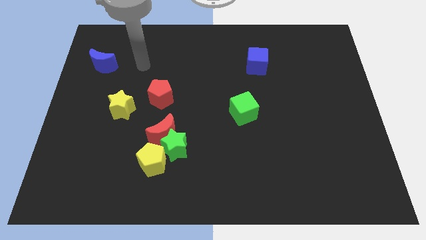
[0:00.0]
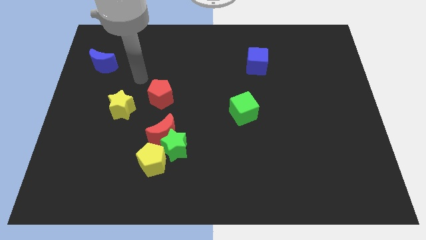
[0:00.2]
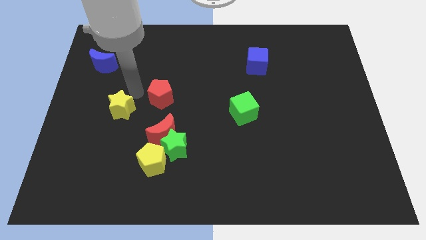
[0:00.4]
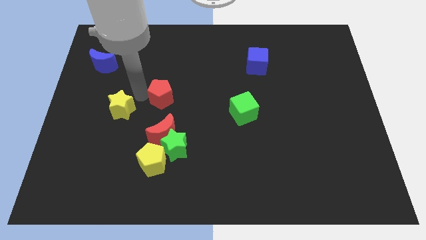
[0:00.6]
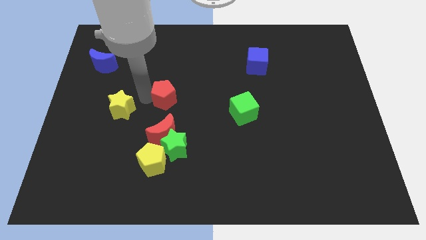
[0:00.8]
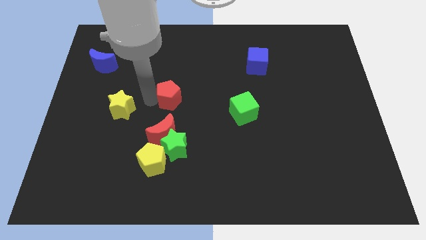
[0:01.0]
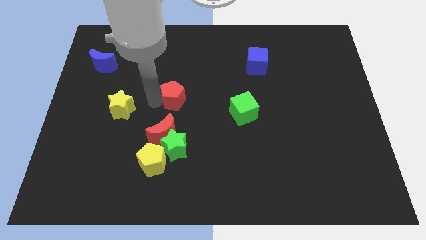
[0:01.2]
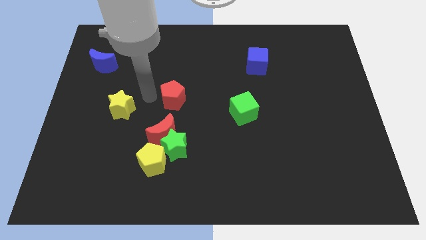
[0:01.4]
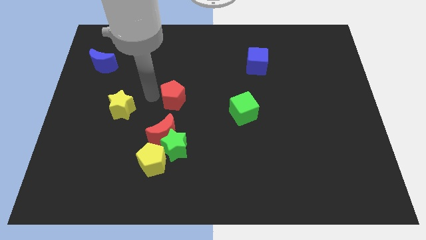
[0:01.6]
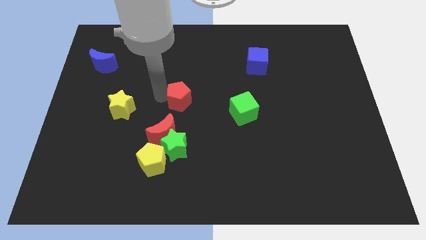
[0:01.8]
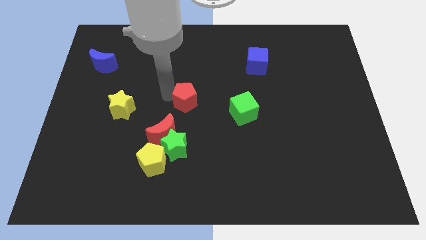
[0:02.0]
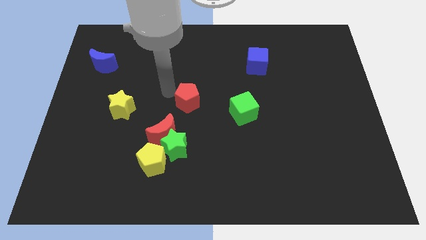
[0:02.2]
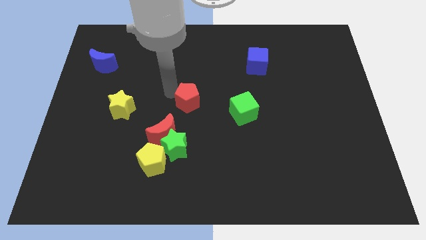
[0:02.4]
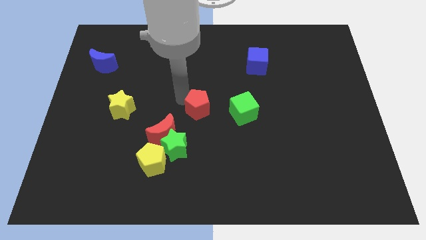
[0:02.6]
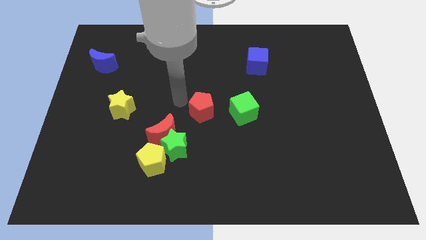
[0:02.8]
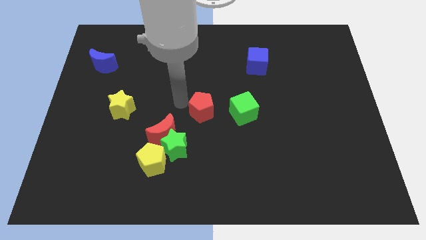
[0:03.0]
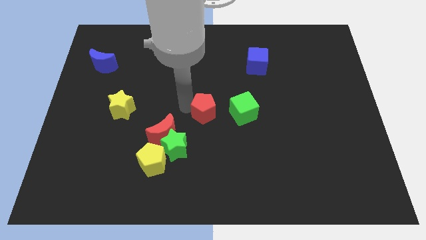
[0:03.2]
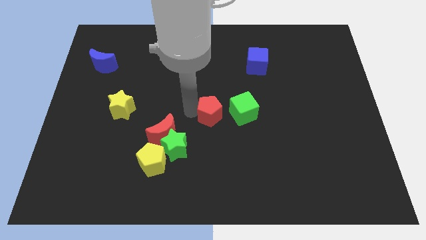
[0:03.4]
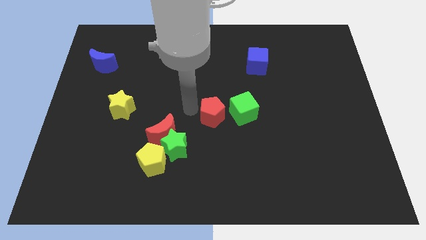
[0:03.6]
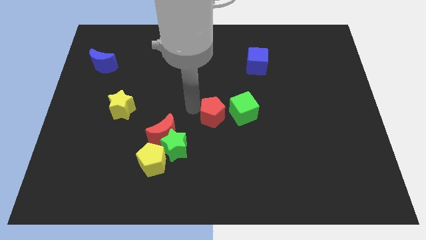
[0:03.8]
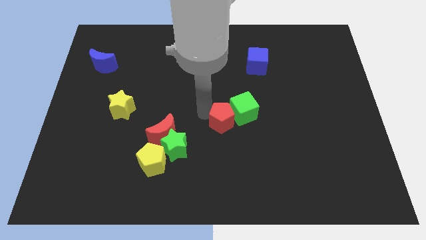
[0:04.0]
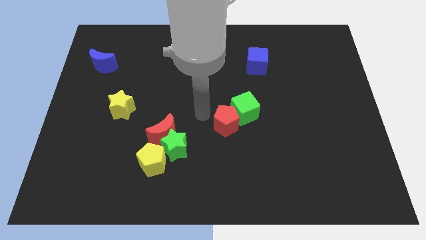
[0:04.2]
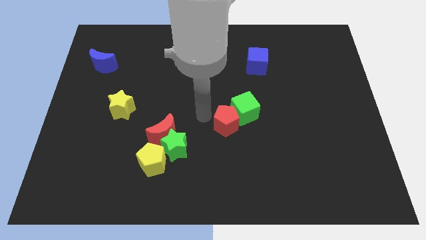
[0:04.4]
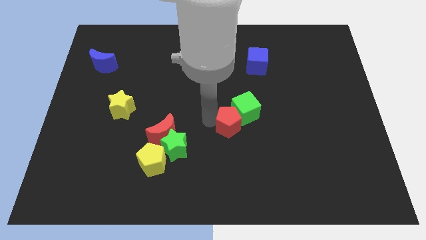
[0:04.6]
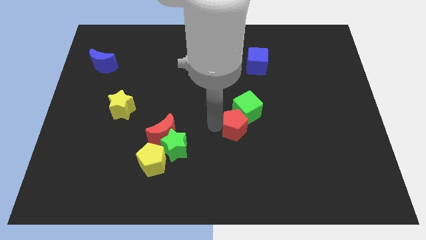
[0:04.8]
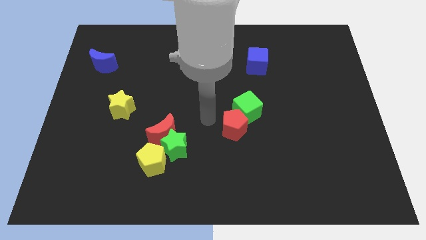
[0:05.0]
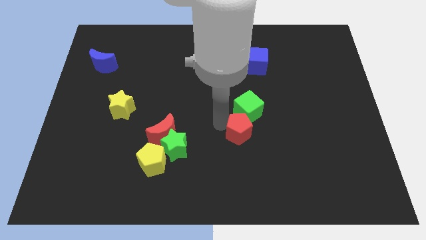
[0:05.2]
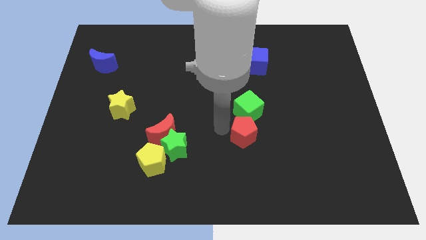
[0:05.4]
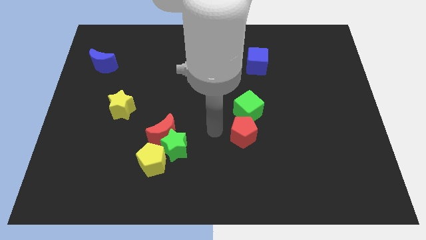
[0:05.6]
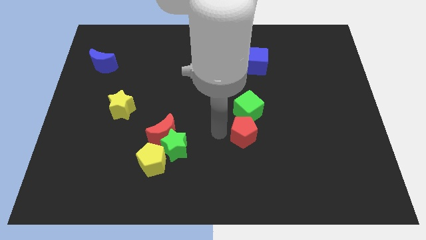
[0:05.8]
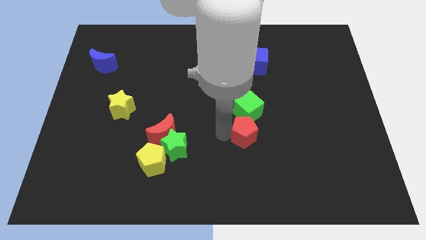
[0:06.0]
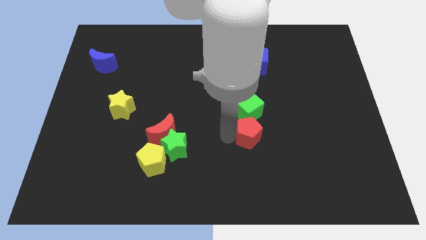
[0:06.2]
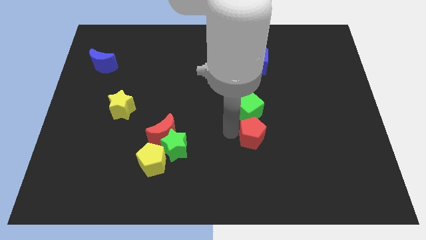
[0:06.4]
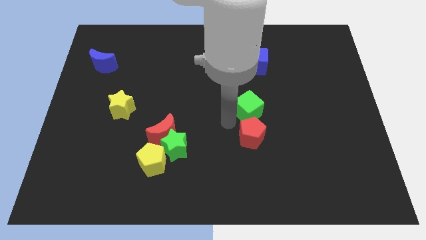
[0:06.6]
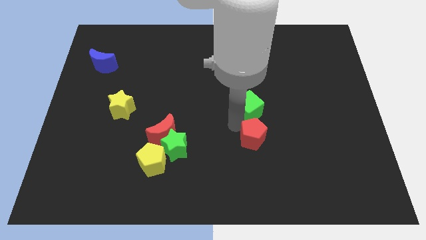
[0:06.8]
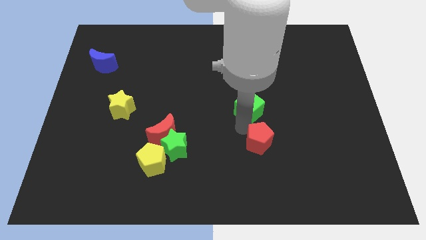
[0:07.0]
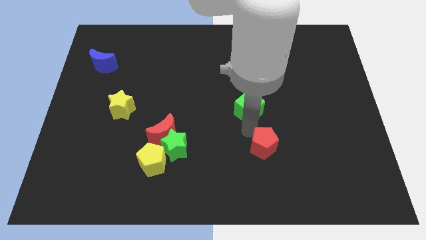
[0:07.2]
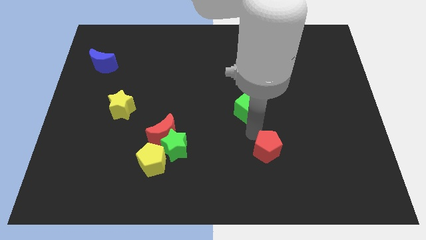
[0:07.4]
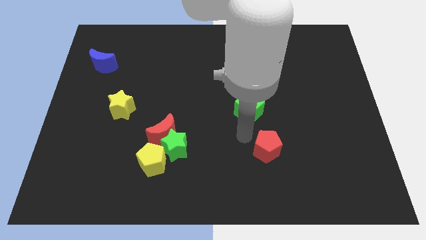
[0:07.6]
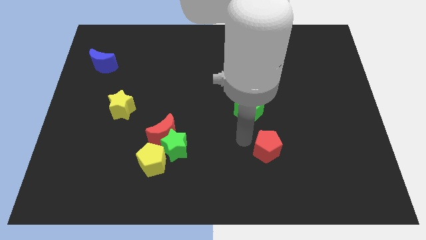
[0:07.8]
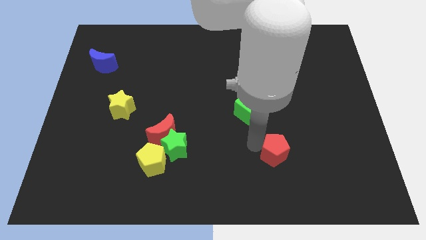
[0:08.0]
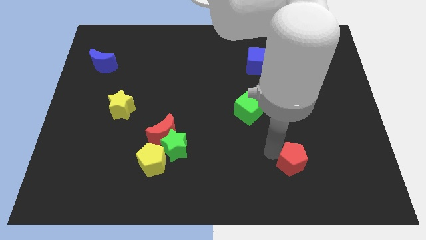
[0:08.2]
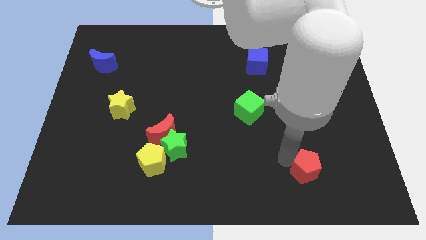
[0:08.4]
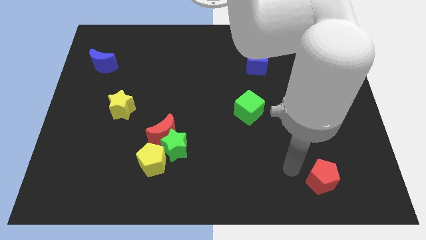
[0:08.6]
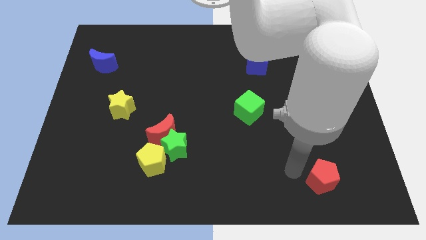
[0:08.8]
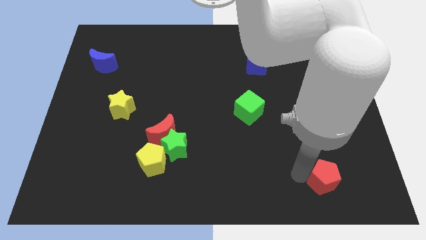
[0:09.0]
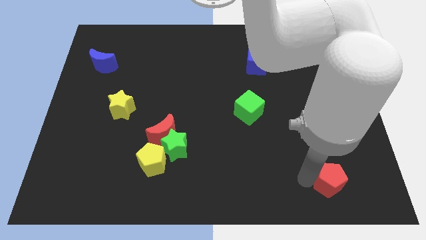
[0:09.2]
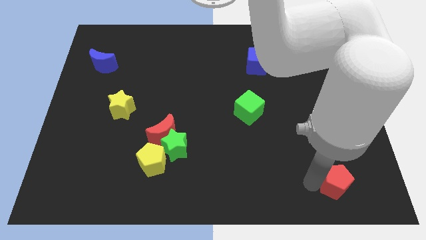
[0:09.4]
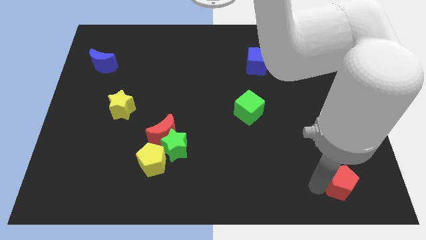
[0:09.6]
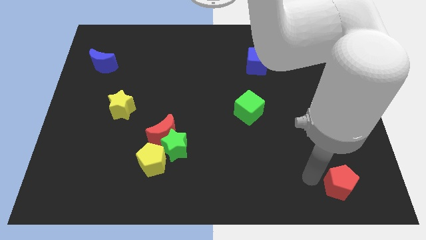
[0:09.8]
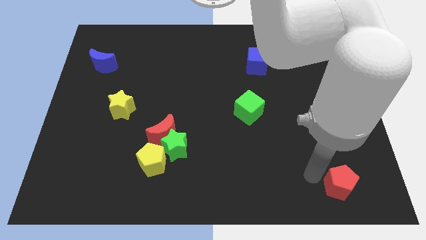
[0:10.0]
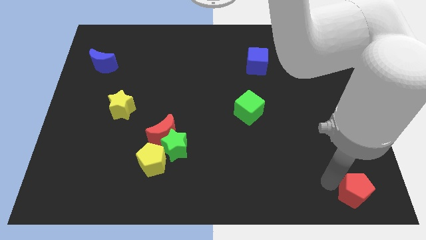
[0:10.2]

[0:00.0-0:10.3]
put the red pentagon to the bottom right

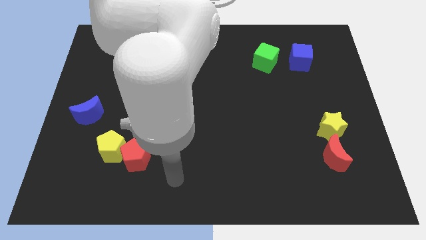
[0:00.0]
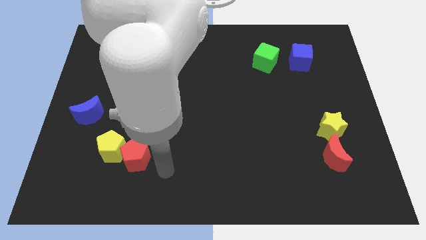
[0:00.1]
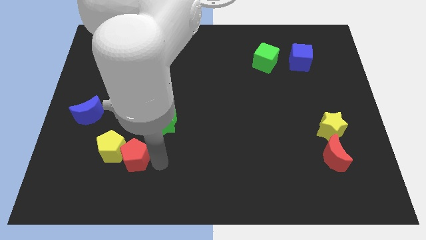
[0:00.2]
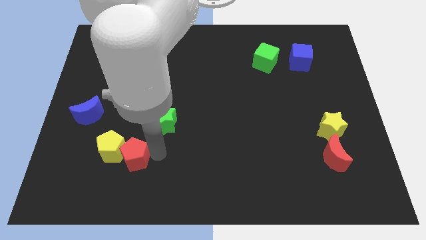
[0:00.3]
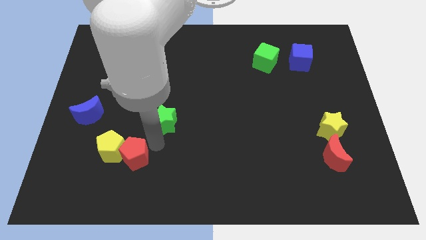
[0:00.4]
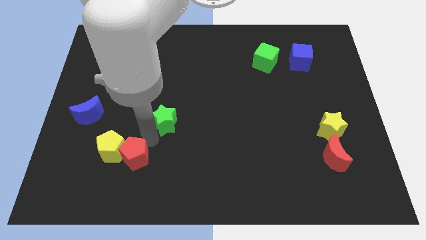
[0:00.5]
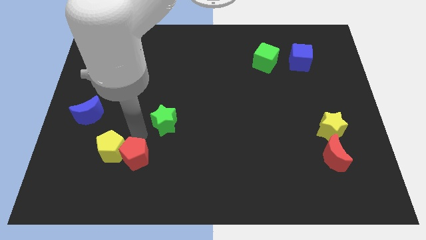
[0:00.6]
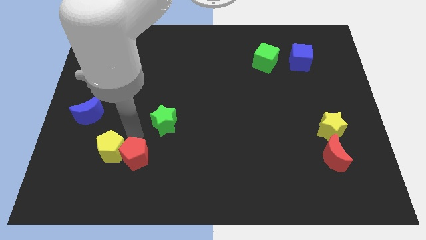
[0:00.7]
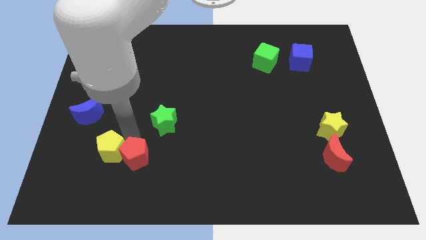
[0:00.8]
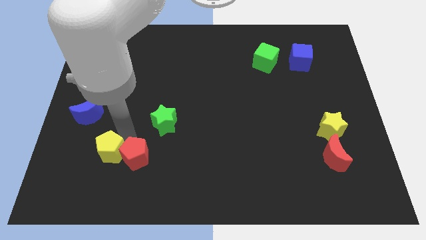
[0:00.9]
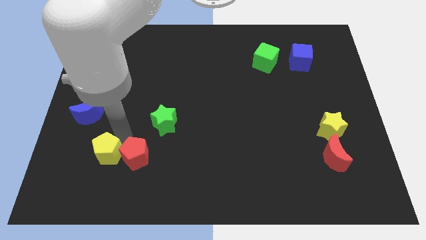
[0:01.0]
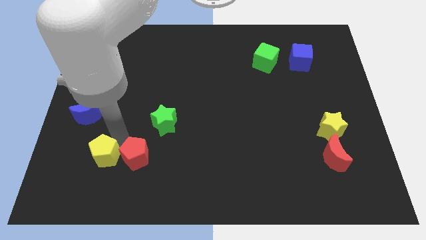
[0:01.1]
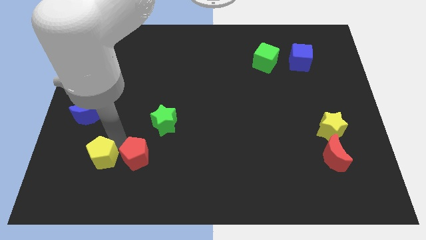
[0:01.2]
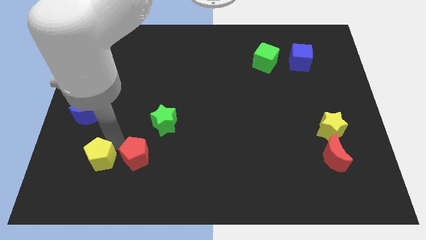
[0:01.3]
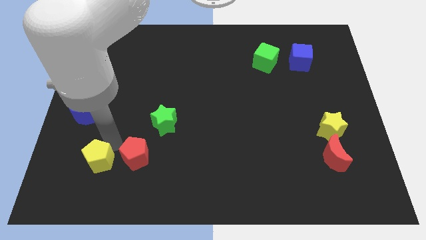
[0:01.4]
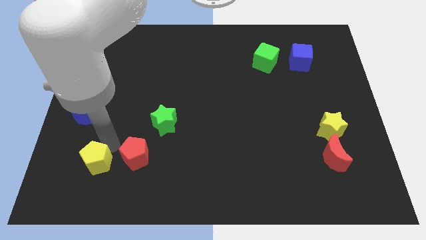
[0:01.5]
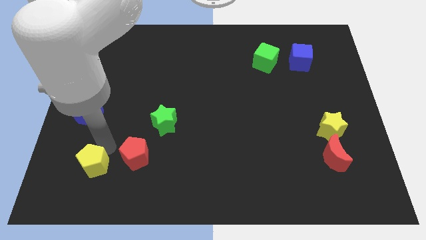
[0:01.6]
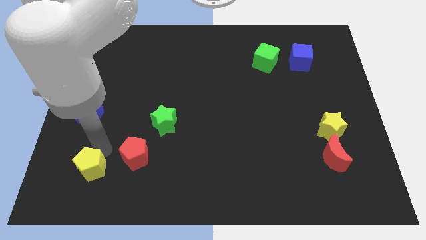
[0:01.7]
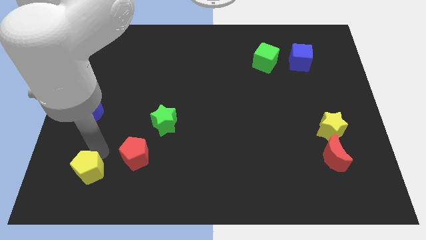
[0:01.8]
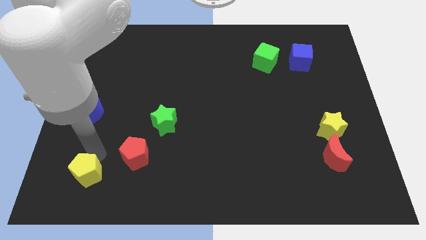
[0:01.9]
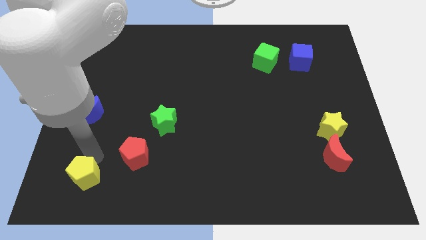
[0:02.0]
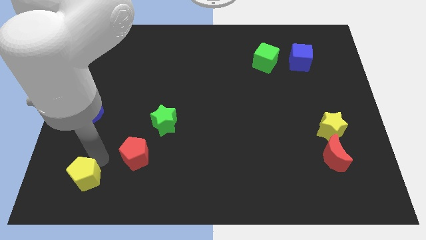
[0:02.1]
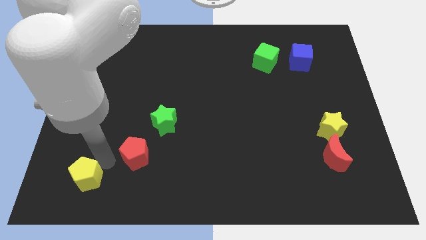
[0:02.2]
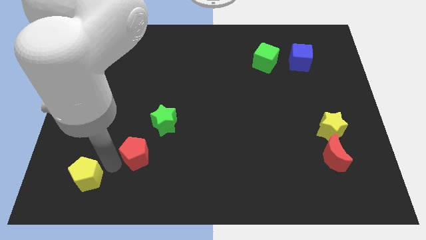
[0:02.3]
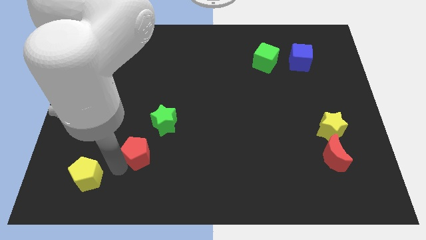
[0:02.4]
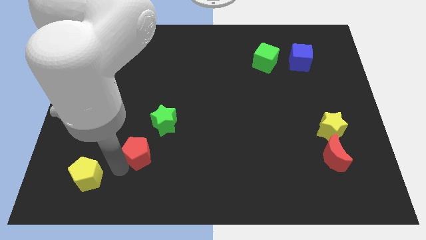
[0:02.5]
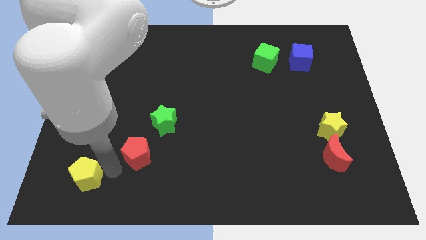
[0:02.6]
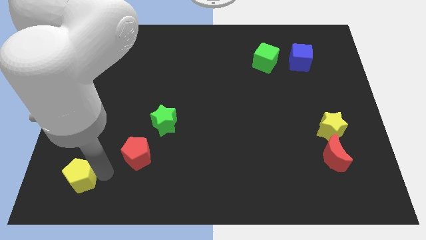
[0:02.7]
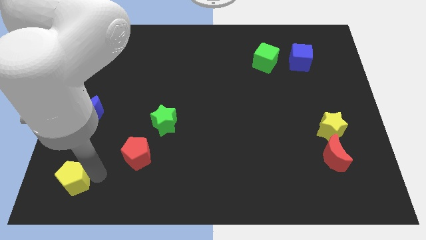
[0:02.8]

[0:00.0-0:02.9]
push the yellow pentagon to the bottom left corner
